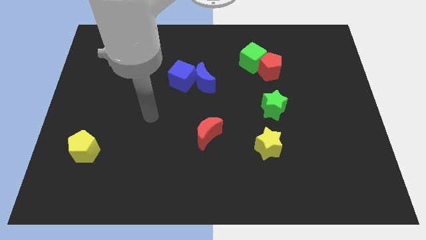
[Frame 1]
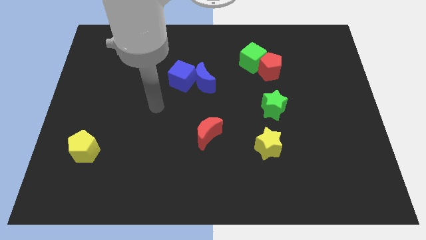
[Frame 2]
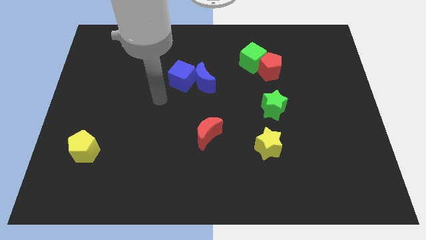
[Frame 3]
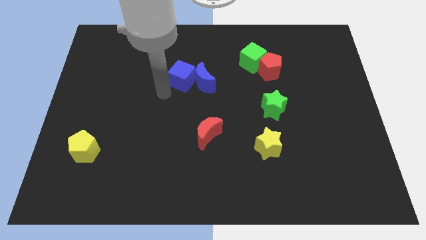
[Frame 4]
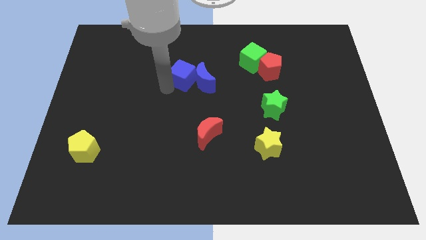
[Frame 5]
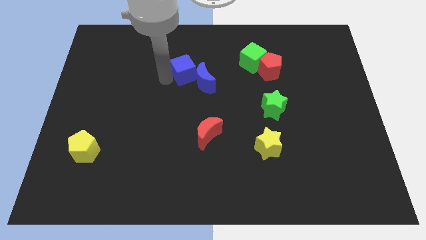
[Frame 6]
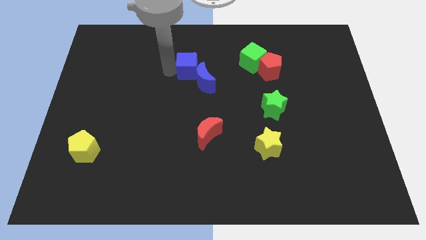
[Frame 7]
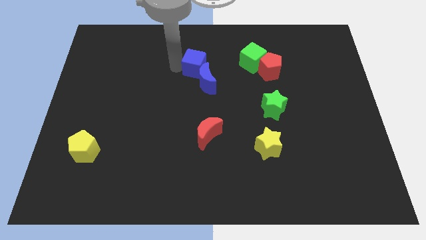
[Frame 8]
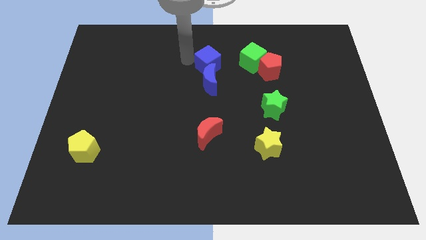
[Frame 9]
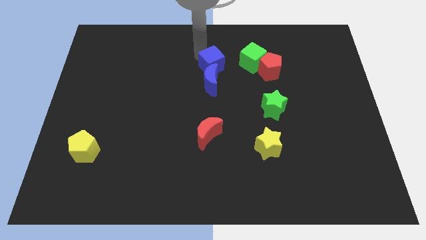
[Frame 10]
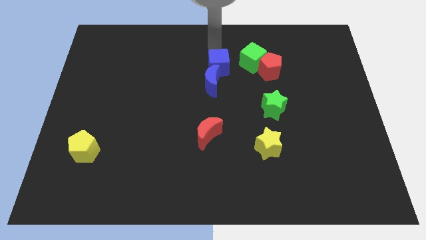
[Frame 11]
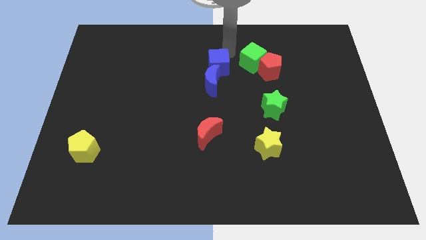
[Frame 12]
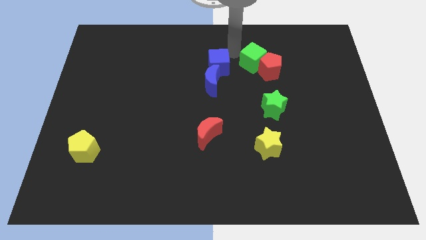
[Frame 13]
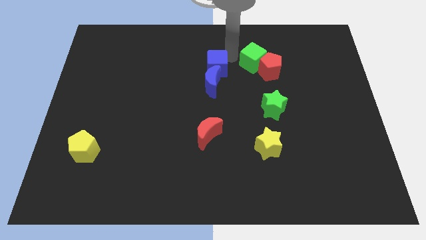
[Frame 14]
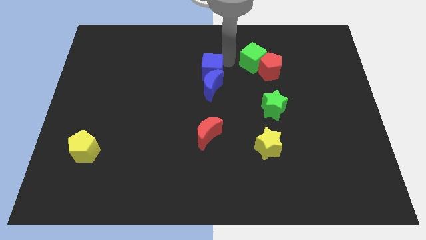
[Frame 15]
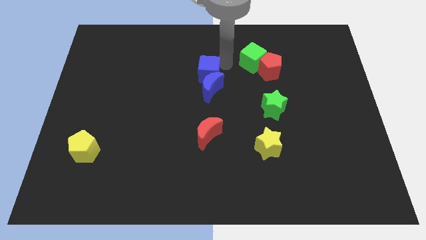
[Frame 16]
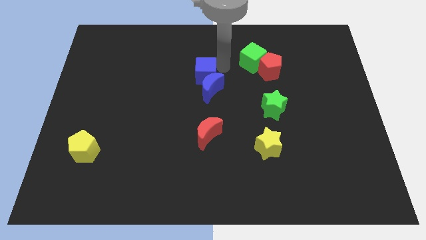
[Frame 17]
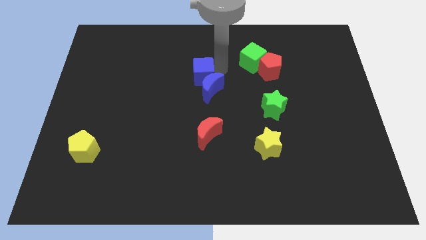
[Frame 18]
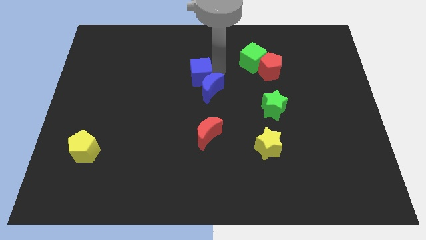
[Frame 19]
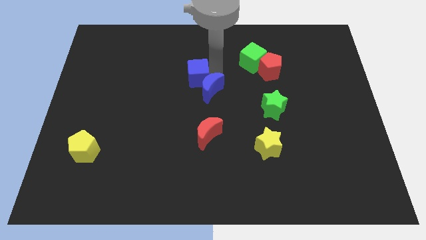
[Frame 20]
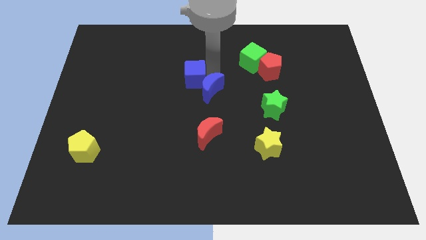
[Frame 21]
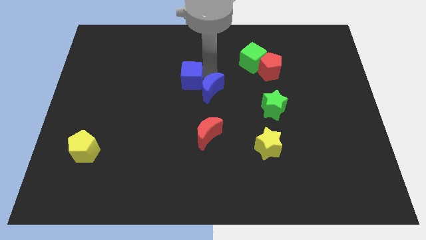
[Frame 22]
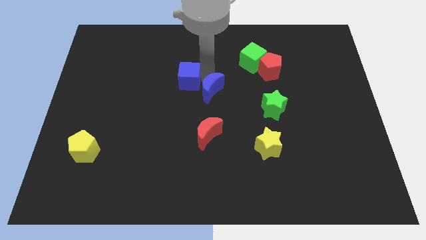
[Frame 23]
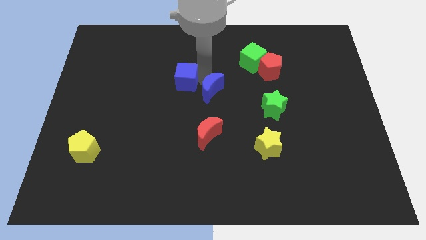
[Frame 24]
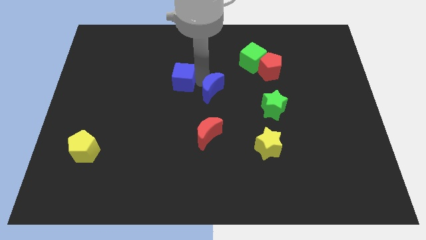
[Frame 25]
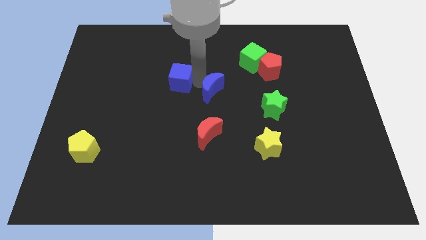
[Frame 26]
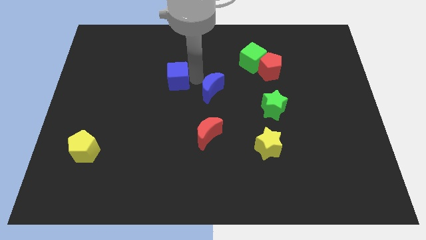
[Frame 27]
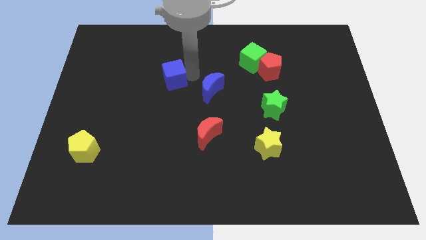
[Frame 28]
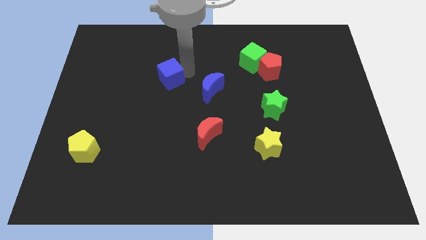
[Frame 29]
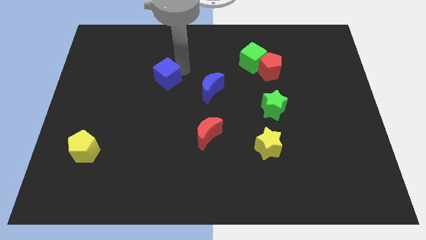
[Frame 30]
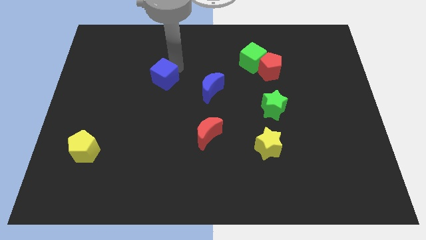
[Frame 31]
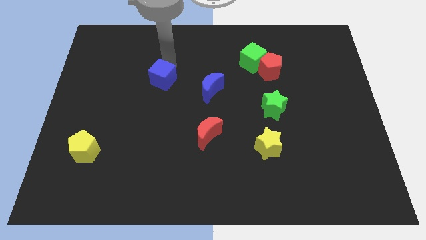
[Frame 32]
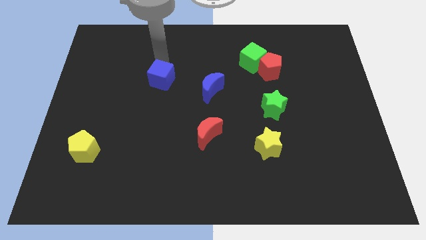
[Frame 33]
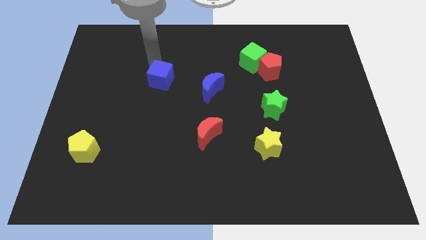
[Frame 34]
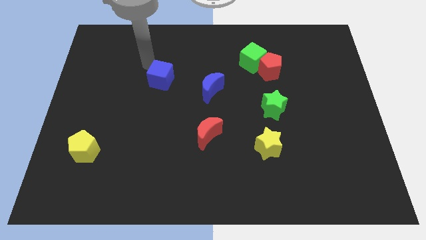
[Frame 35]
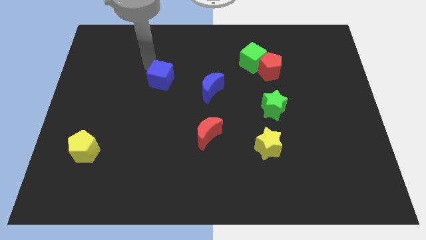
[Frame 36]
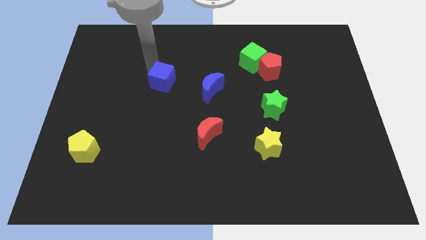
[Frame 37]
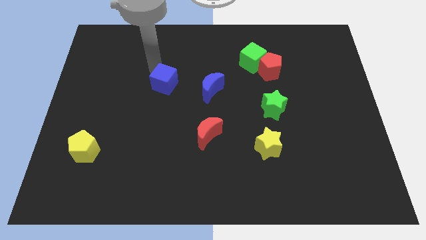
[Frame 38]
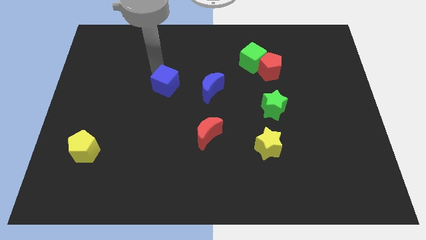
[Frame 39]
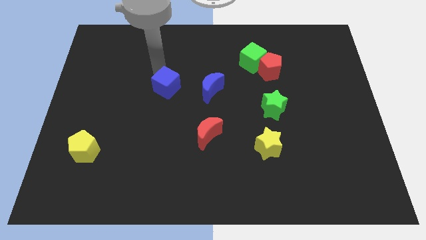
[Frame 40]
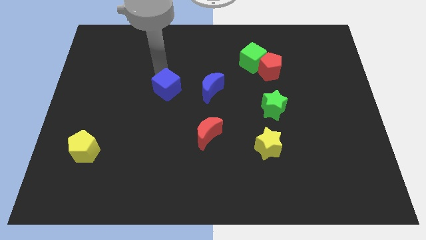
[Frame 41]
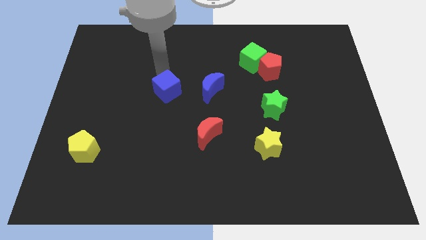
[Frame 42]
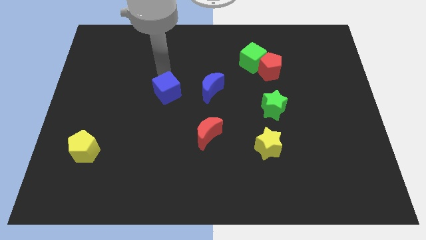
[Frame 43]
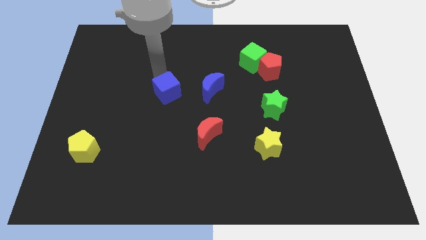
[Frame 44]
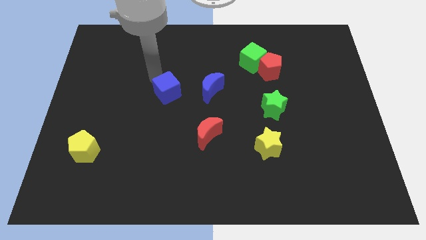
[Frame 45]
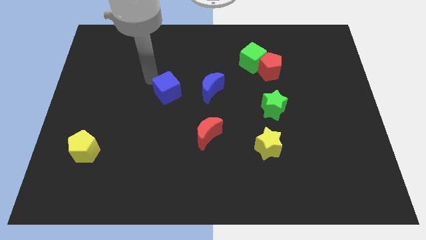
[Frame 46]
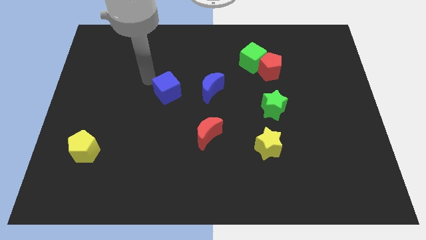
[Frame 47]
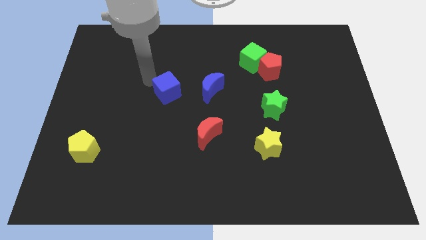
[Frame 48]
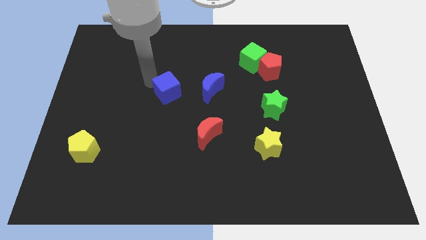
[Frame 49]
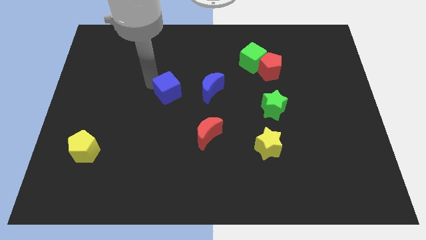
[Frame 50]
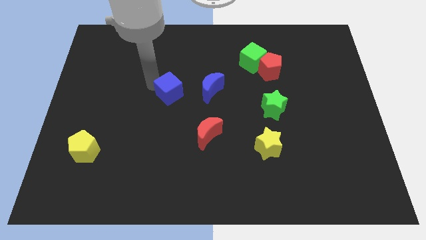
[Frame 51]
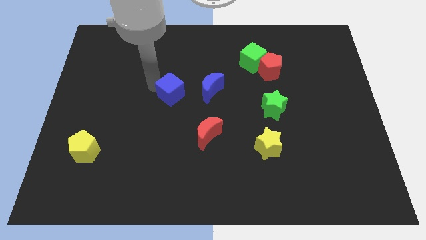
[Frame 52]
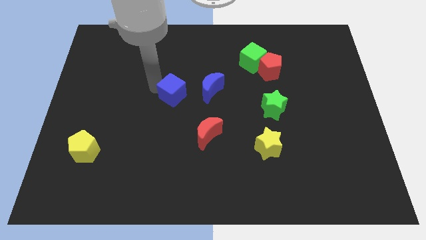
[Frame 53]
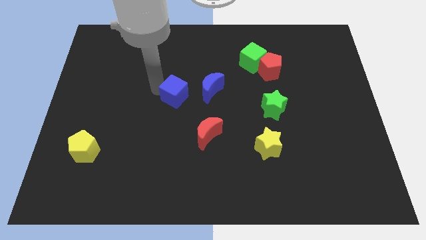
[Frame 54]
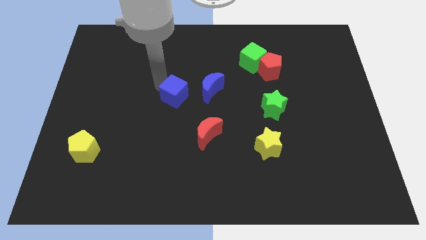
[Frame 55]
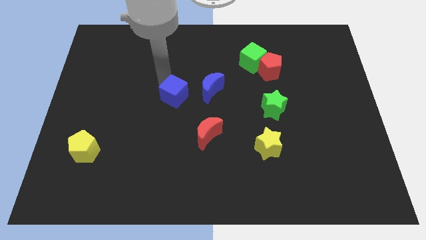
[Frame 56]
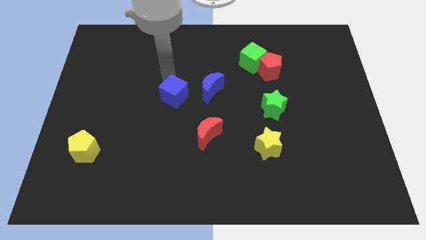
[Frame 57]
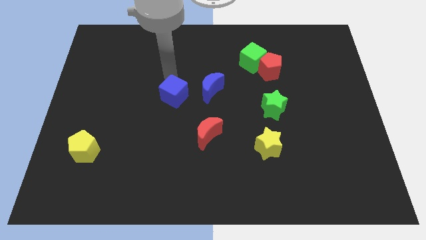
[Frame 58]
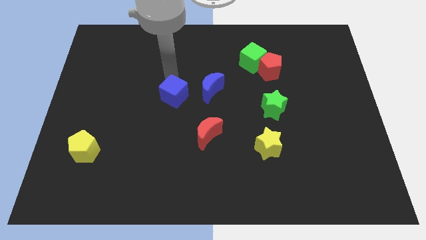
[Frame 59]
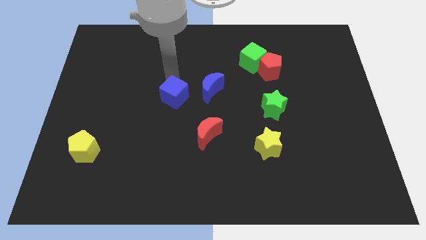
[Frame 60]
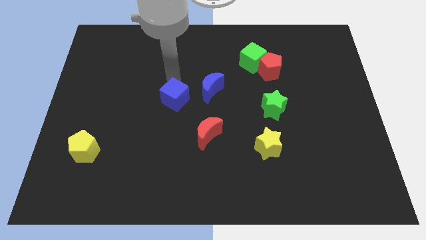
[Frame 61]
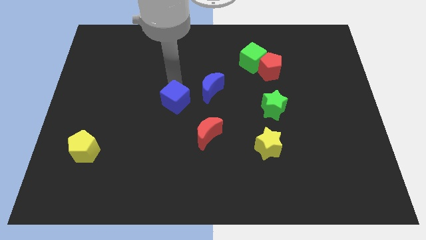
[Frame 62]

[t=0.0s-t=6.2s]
push the blue cube a little downwards

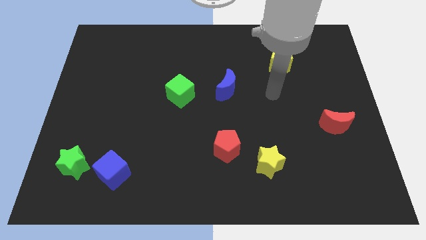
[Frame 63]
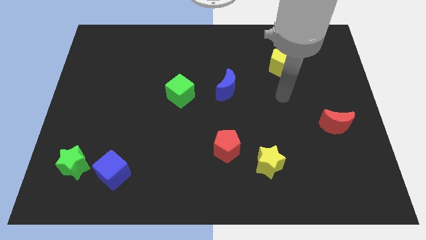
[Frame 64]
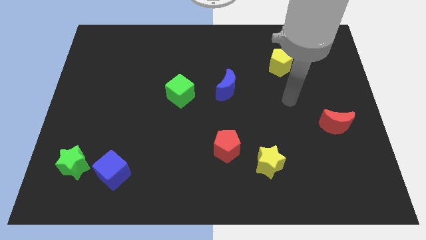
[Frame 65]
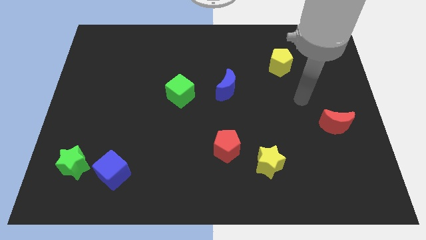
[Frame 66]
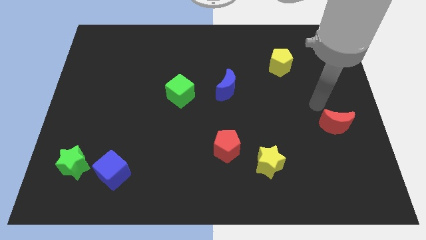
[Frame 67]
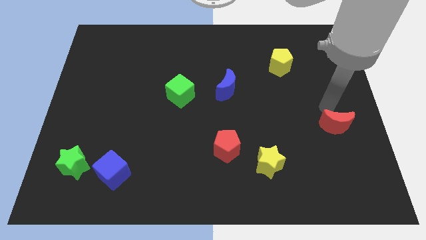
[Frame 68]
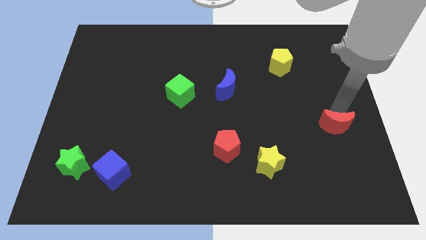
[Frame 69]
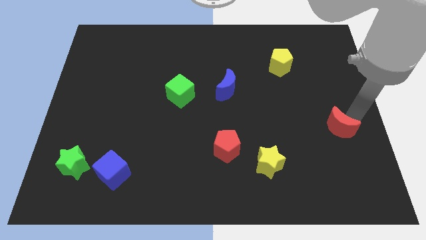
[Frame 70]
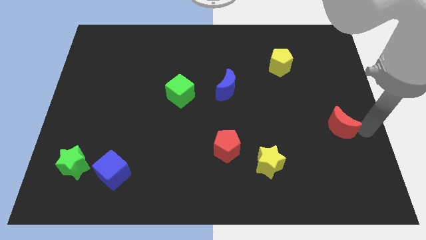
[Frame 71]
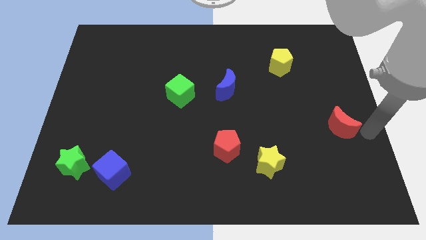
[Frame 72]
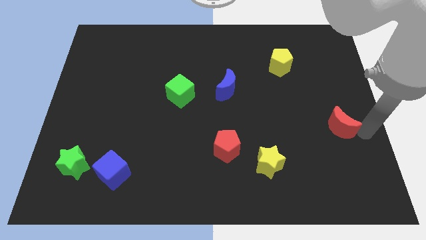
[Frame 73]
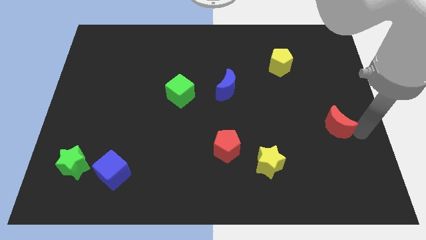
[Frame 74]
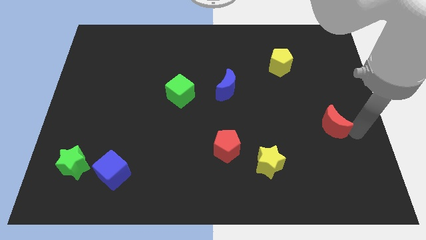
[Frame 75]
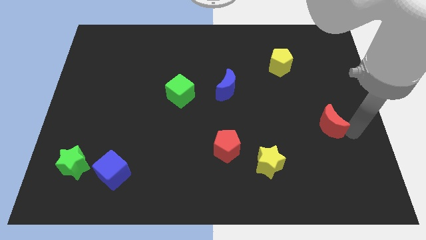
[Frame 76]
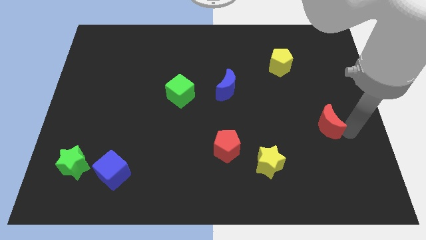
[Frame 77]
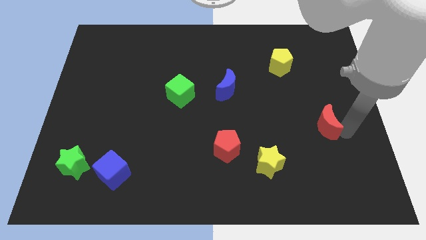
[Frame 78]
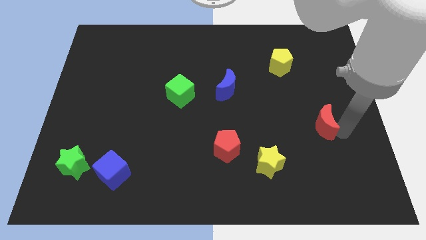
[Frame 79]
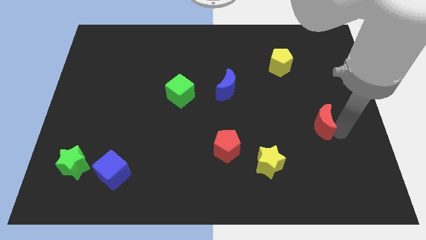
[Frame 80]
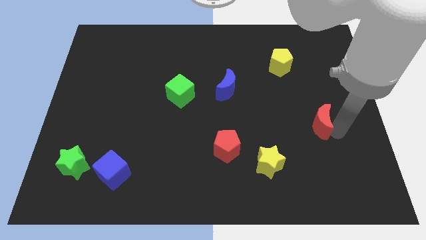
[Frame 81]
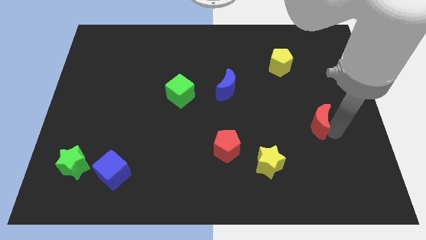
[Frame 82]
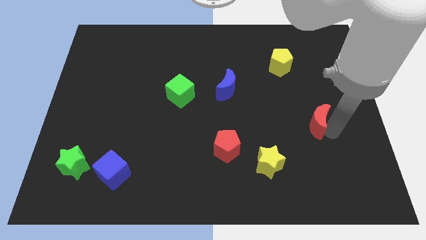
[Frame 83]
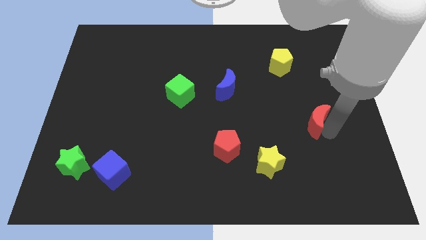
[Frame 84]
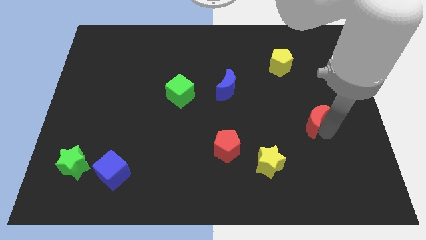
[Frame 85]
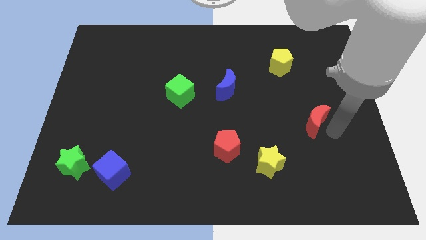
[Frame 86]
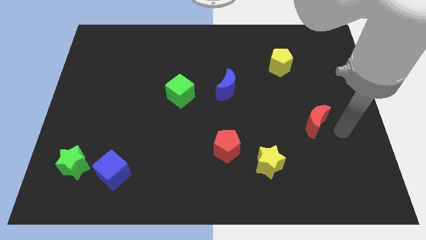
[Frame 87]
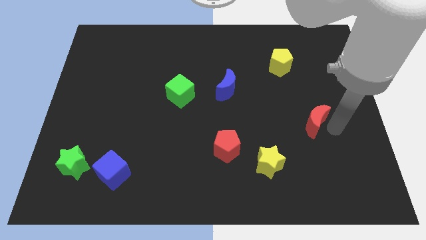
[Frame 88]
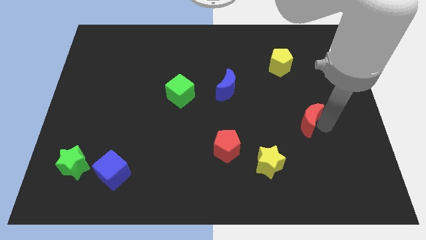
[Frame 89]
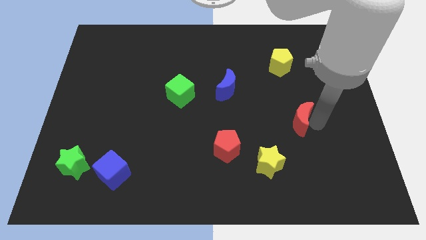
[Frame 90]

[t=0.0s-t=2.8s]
slide the red moon left a little
